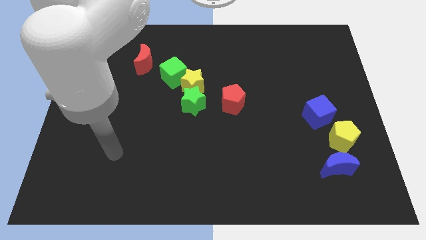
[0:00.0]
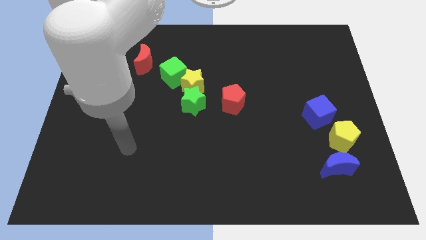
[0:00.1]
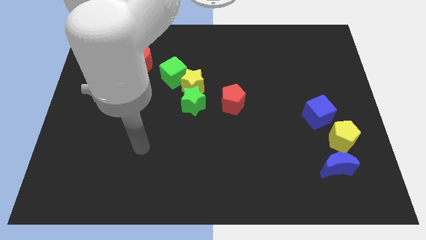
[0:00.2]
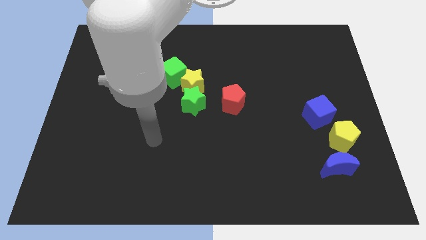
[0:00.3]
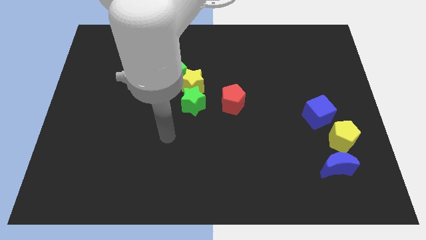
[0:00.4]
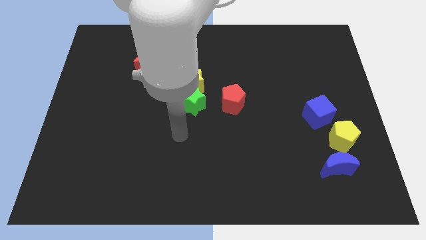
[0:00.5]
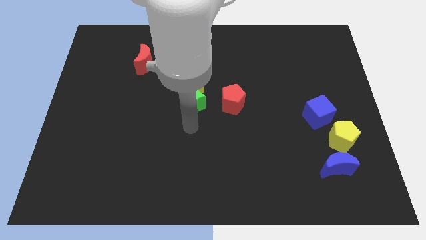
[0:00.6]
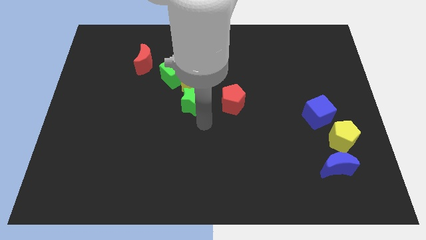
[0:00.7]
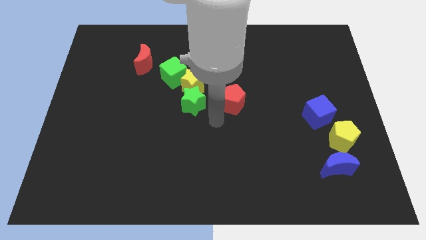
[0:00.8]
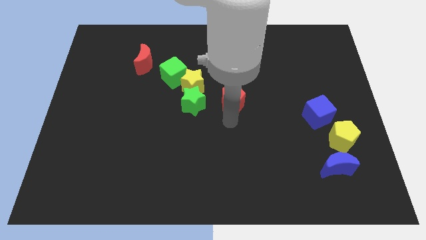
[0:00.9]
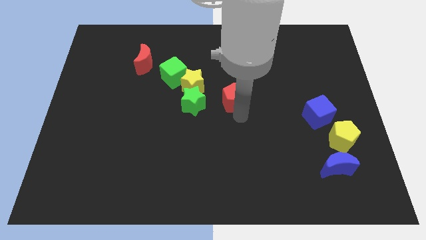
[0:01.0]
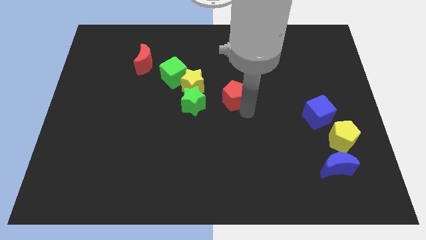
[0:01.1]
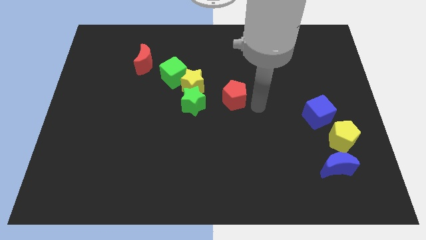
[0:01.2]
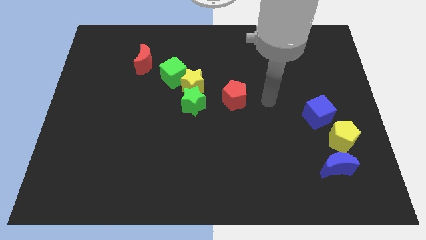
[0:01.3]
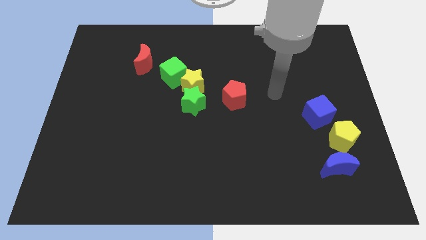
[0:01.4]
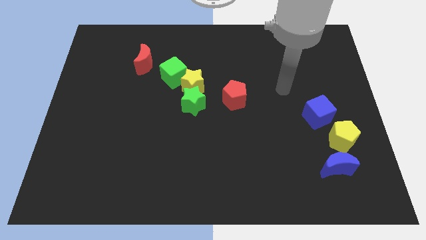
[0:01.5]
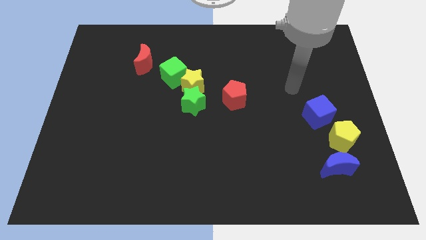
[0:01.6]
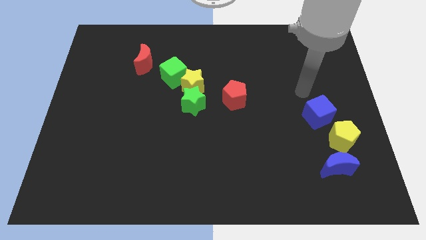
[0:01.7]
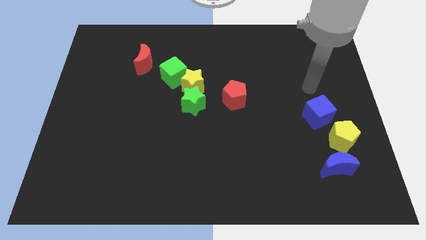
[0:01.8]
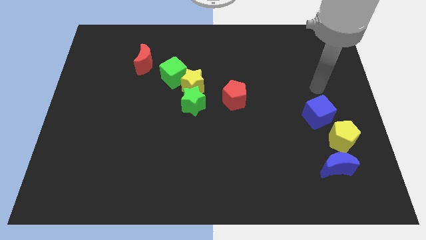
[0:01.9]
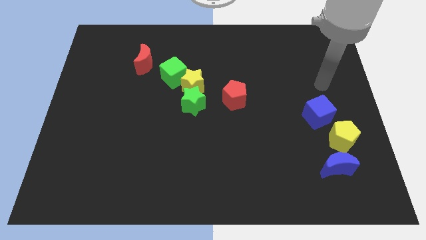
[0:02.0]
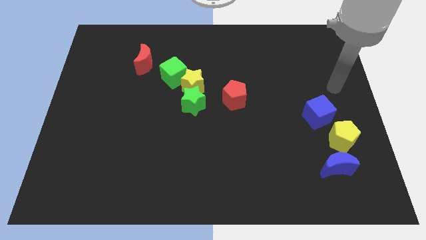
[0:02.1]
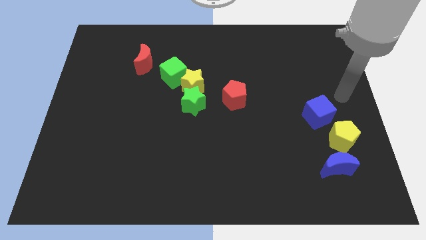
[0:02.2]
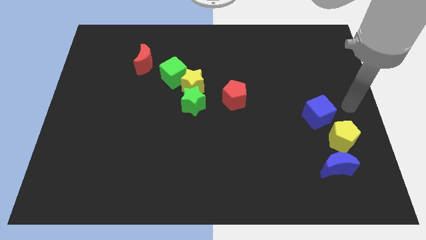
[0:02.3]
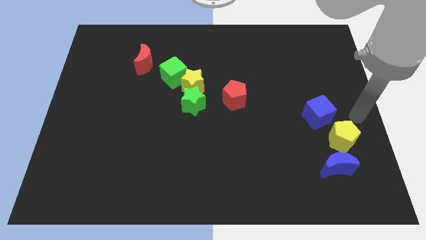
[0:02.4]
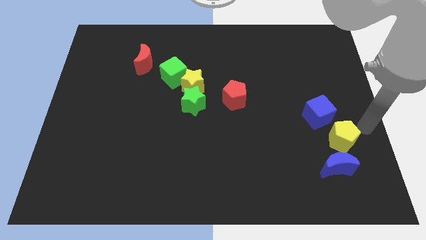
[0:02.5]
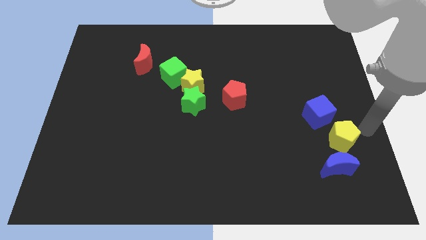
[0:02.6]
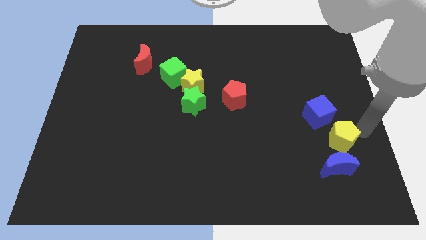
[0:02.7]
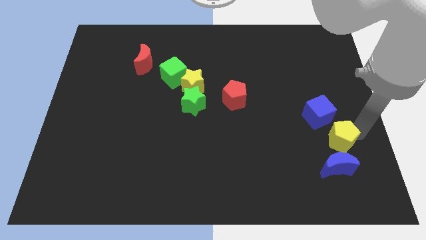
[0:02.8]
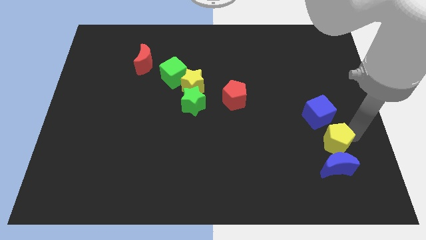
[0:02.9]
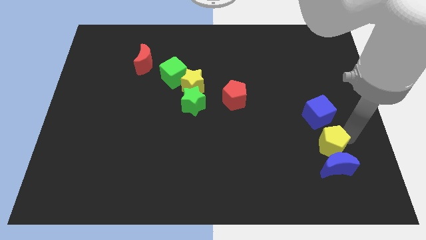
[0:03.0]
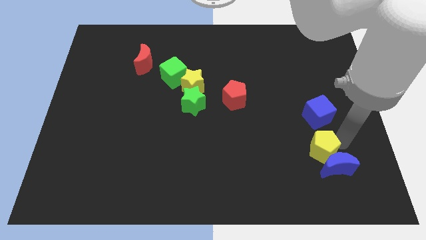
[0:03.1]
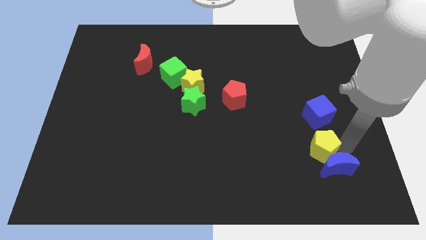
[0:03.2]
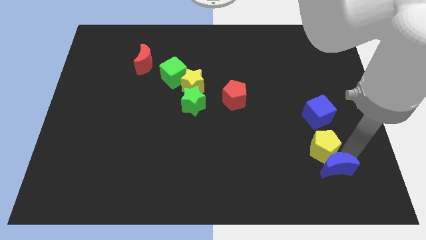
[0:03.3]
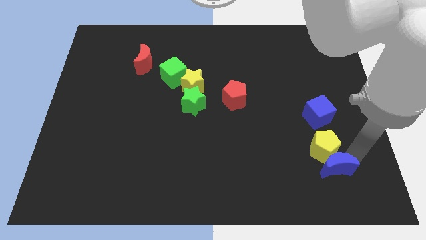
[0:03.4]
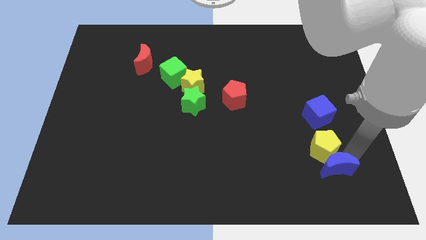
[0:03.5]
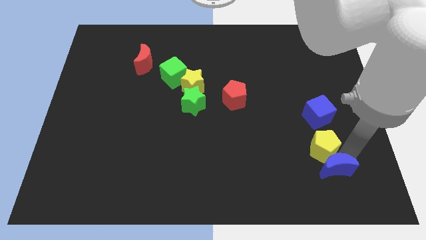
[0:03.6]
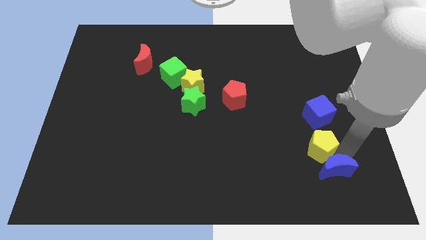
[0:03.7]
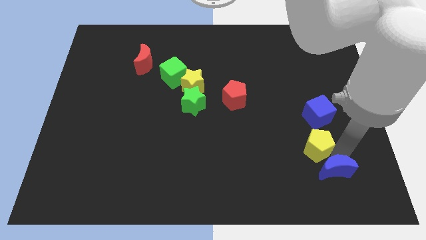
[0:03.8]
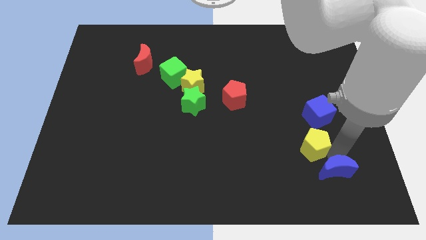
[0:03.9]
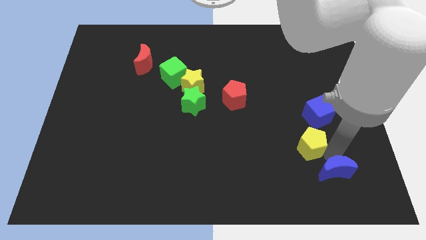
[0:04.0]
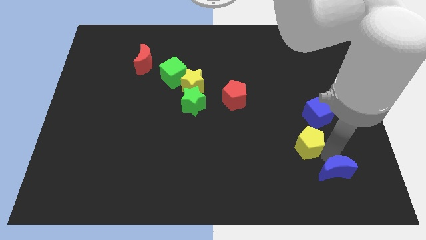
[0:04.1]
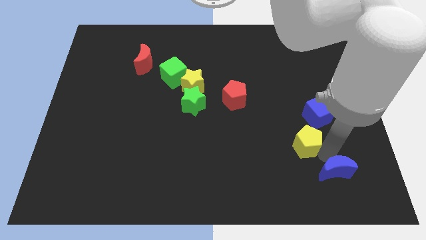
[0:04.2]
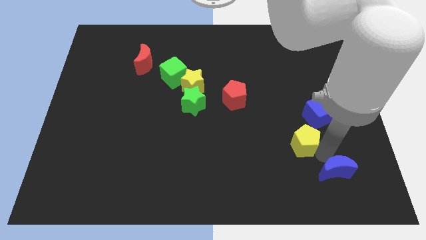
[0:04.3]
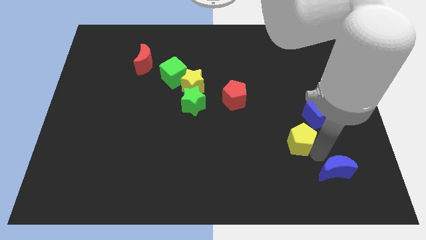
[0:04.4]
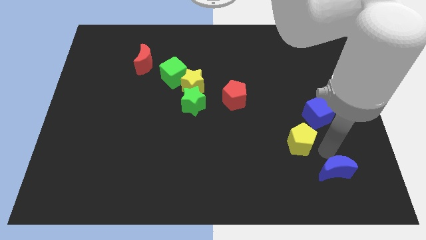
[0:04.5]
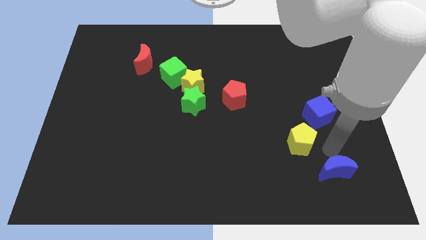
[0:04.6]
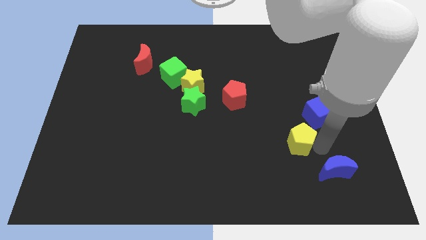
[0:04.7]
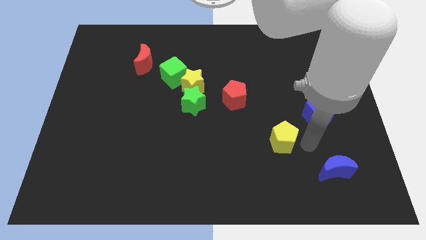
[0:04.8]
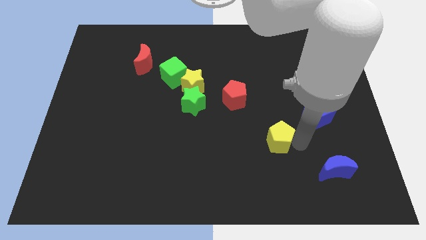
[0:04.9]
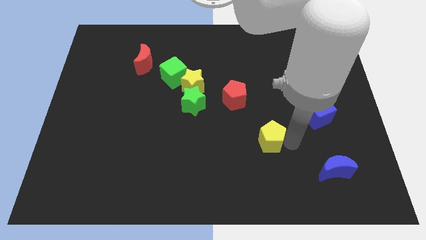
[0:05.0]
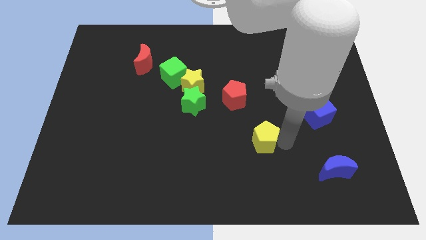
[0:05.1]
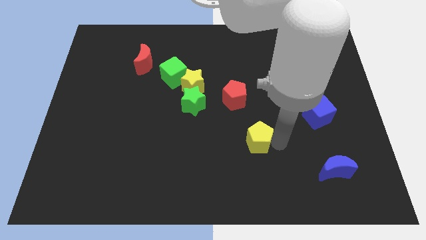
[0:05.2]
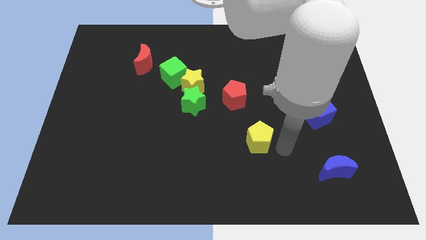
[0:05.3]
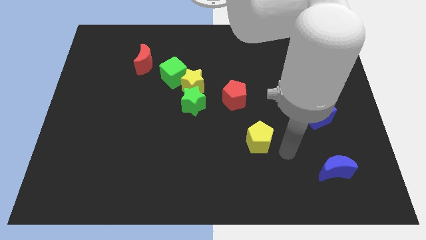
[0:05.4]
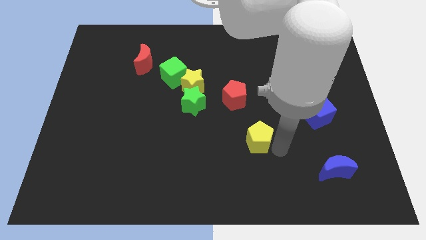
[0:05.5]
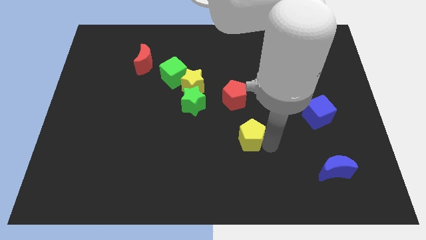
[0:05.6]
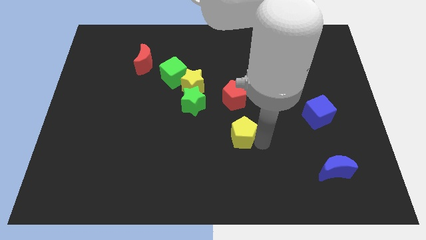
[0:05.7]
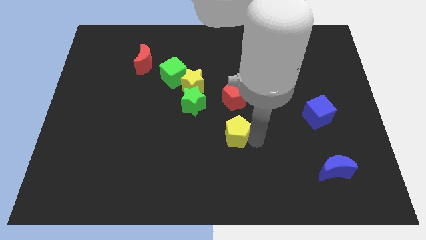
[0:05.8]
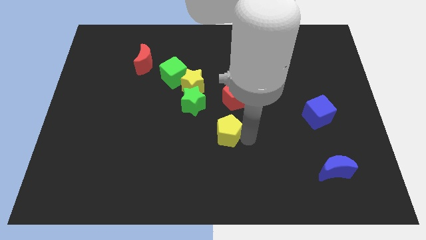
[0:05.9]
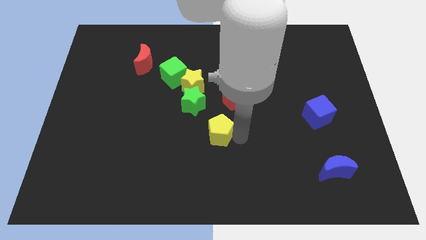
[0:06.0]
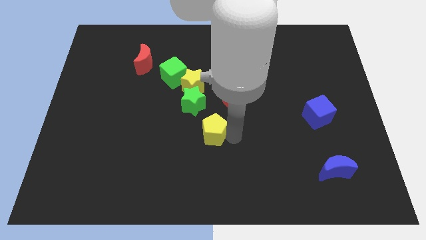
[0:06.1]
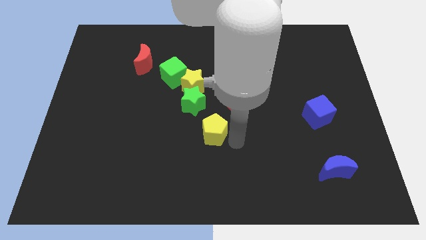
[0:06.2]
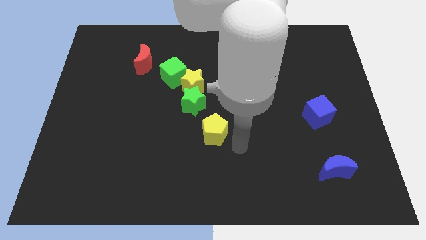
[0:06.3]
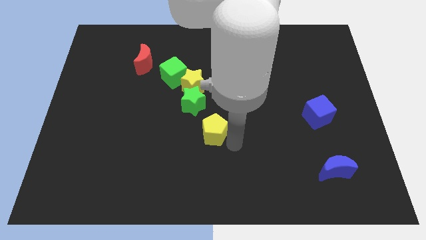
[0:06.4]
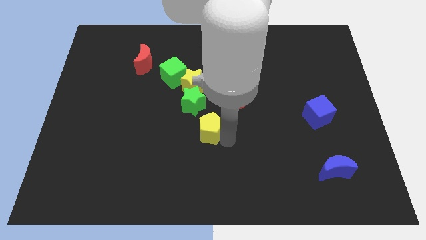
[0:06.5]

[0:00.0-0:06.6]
put the yellow pentagon to the bottom of the yellow star

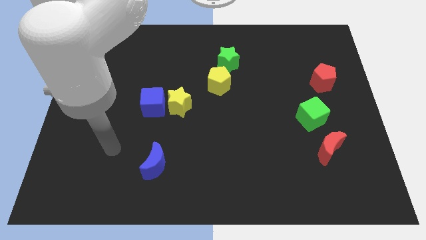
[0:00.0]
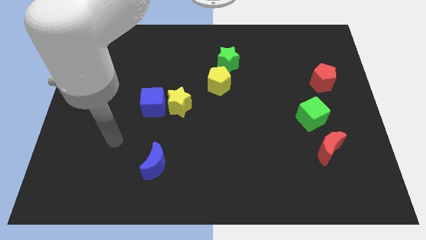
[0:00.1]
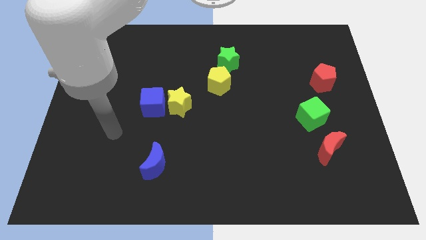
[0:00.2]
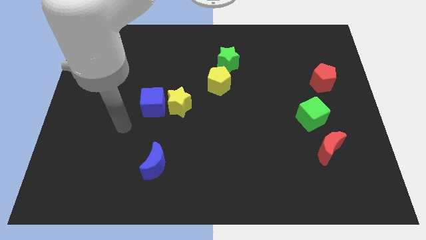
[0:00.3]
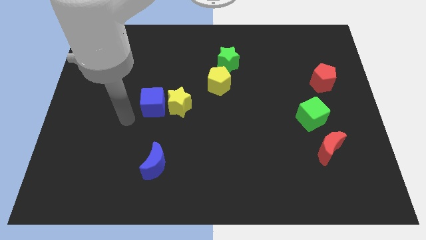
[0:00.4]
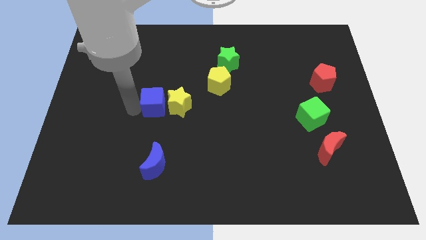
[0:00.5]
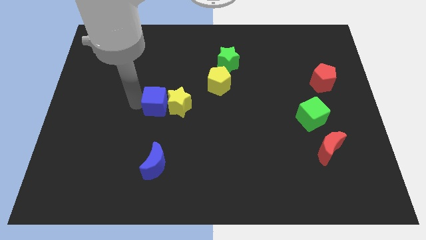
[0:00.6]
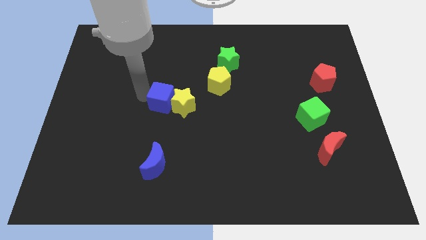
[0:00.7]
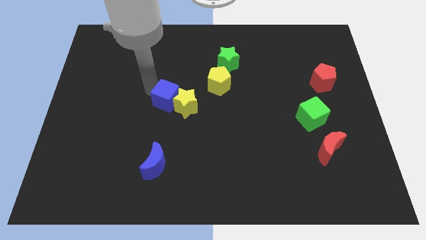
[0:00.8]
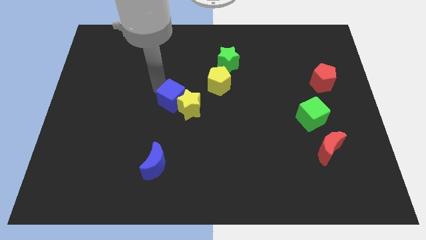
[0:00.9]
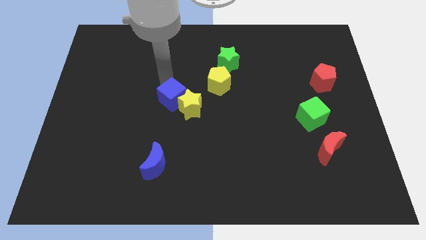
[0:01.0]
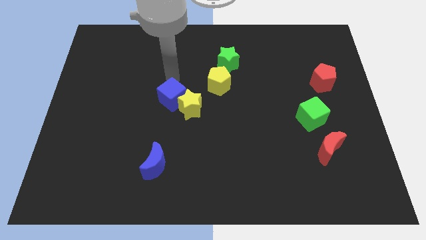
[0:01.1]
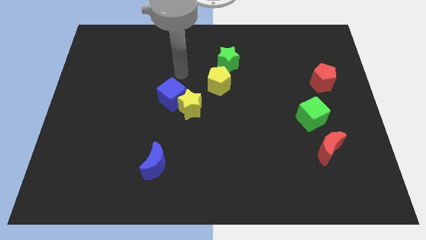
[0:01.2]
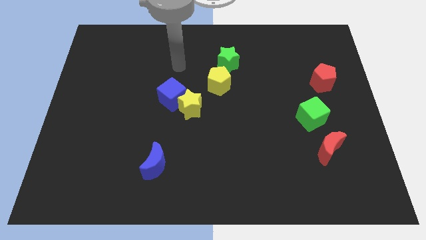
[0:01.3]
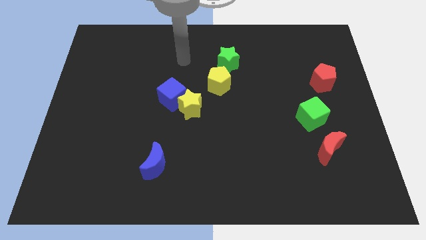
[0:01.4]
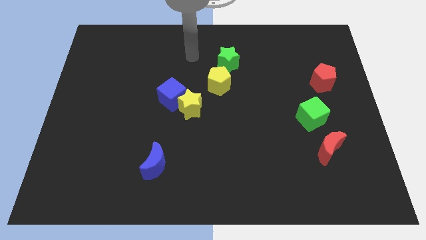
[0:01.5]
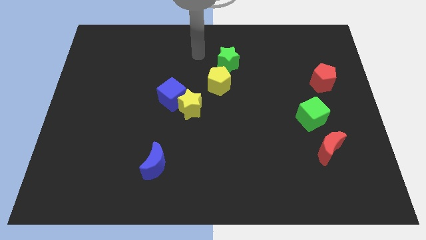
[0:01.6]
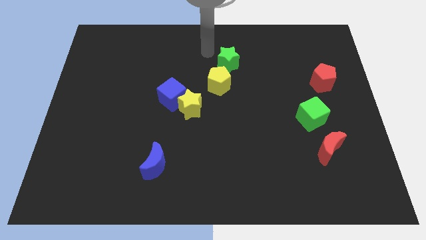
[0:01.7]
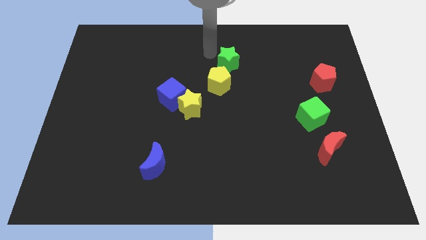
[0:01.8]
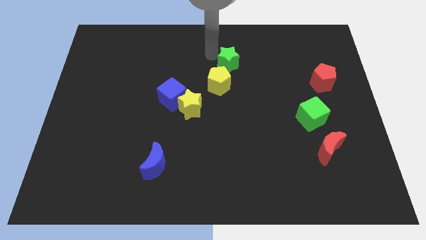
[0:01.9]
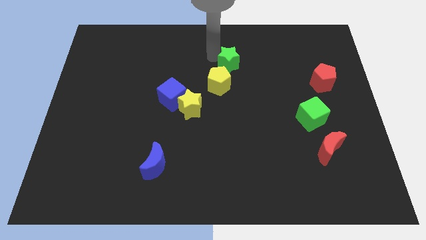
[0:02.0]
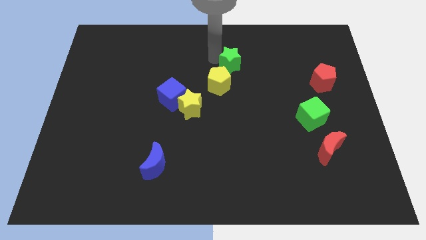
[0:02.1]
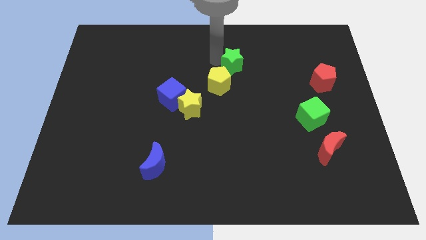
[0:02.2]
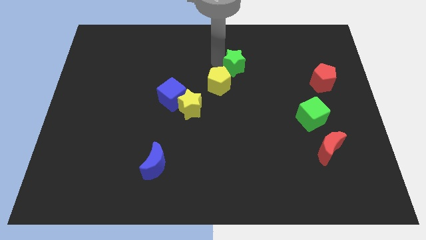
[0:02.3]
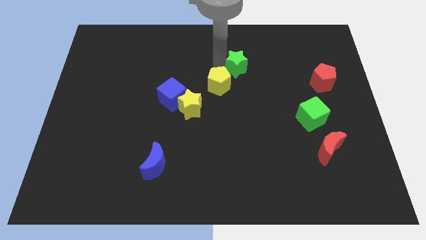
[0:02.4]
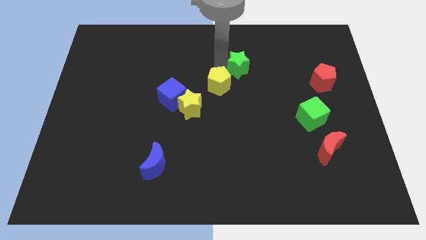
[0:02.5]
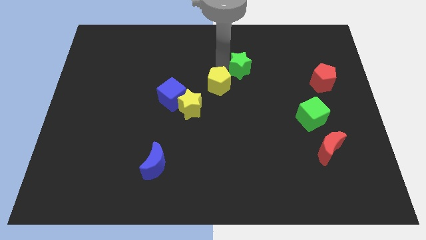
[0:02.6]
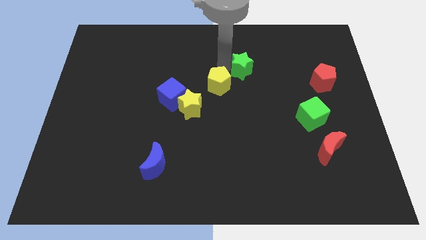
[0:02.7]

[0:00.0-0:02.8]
push the green star to the right side of the yellow pentagon
